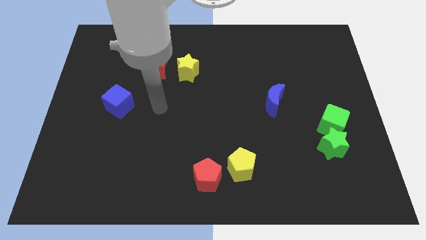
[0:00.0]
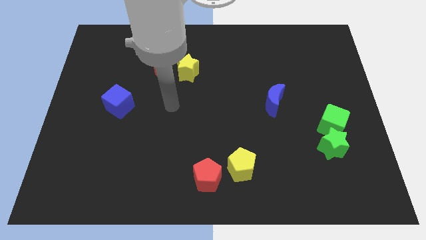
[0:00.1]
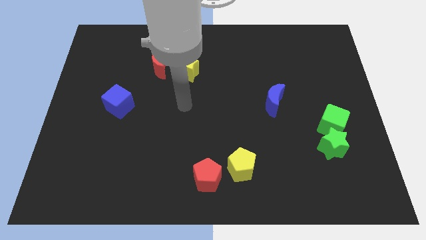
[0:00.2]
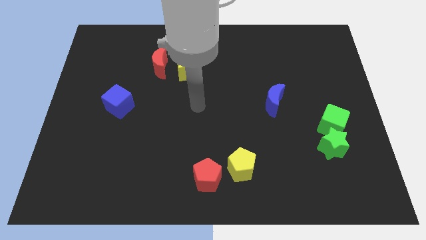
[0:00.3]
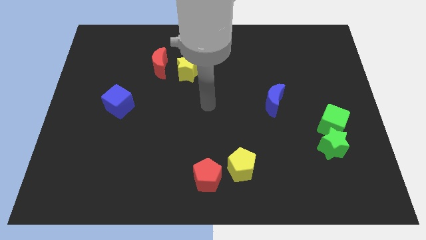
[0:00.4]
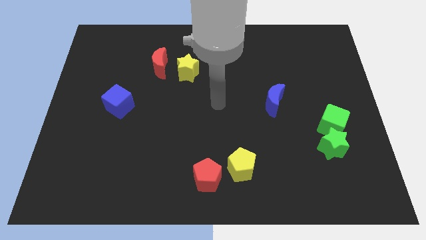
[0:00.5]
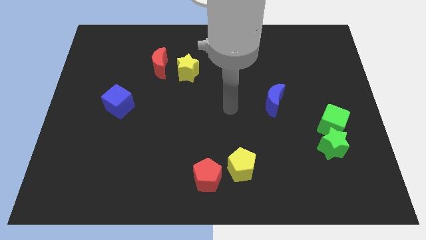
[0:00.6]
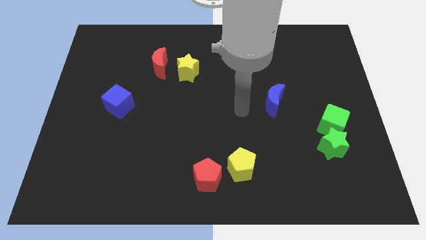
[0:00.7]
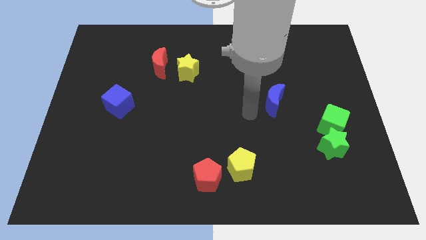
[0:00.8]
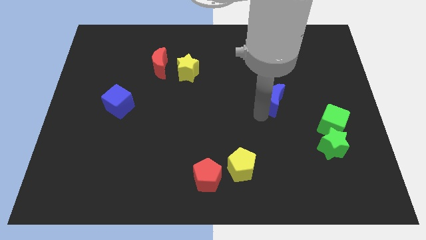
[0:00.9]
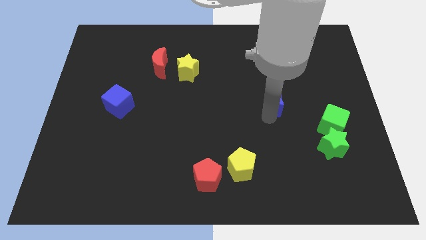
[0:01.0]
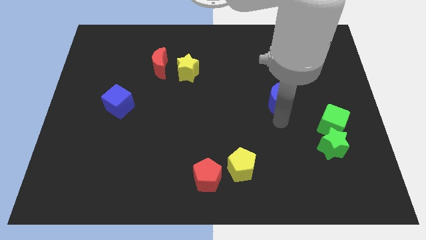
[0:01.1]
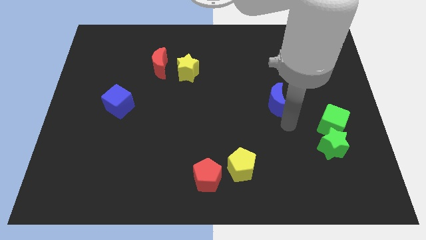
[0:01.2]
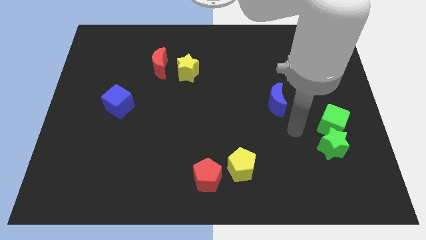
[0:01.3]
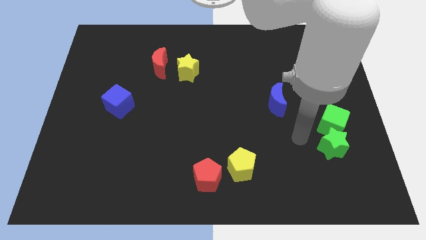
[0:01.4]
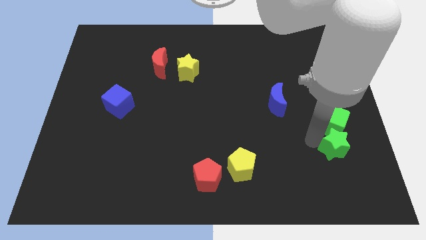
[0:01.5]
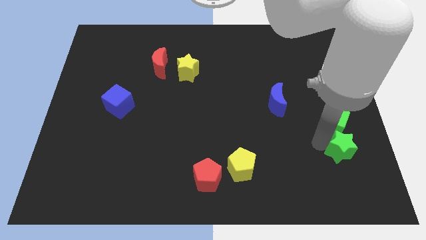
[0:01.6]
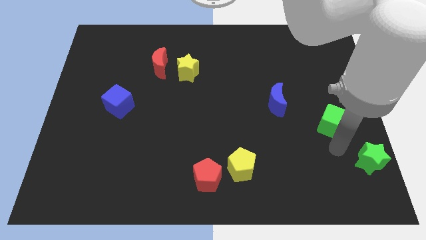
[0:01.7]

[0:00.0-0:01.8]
pull the green cube apart from the green star

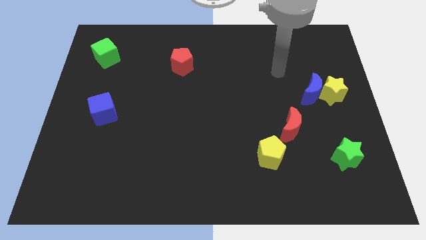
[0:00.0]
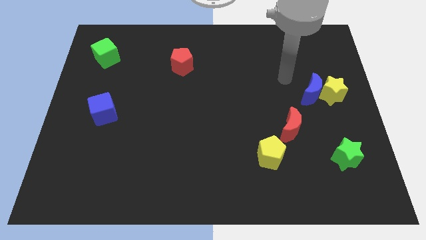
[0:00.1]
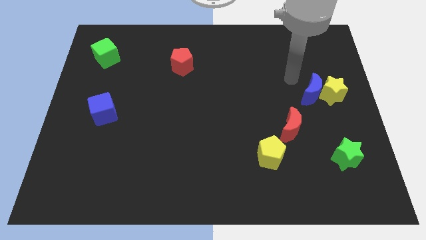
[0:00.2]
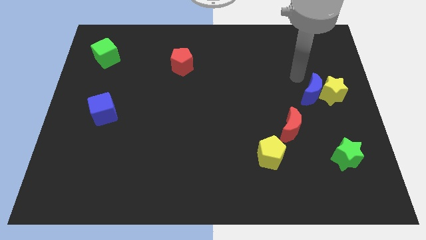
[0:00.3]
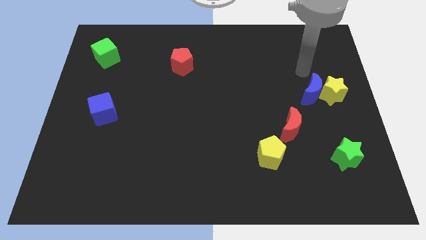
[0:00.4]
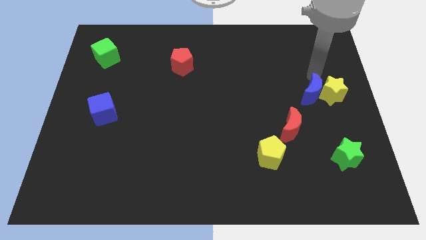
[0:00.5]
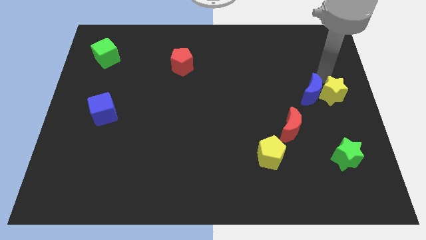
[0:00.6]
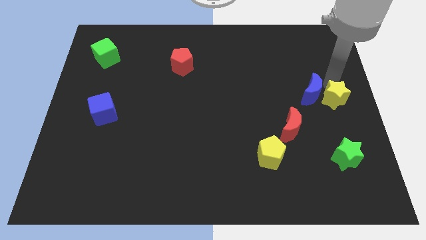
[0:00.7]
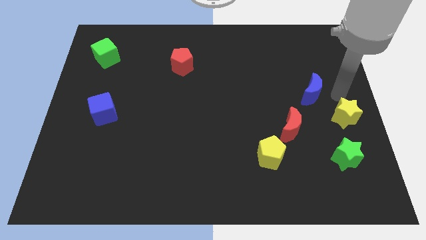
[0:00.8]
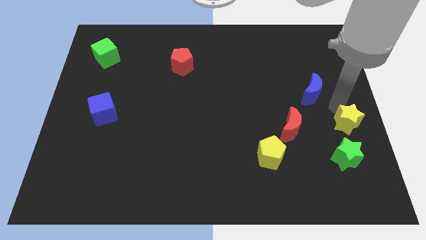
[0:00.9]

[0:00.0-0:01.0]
separate the blue moon from the yellow star

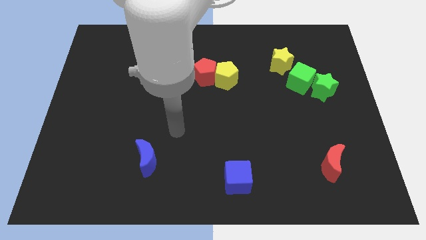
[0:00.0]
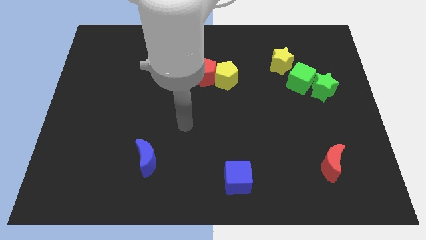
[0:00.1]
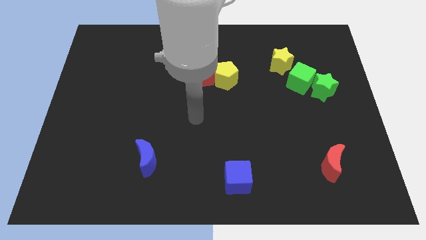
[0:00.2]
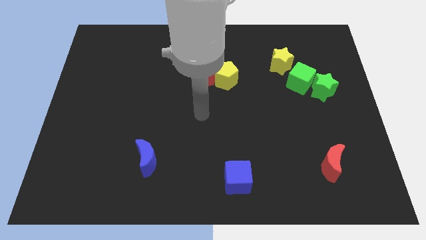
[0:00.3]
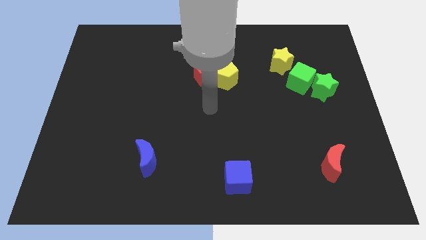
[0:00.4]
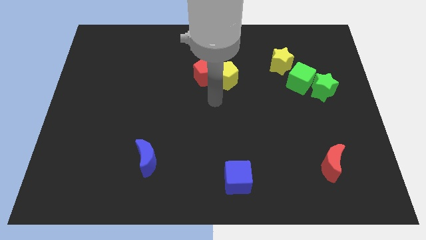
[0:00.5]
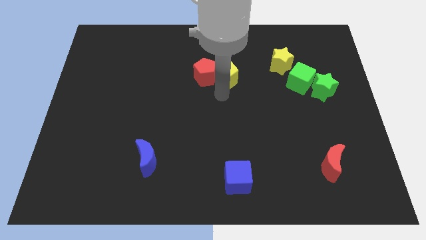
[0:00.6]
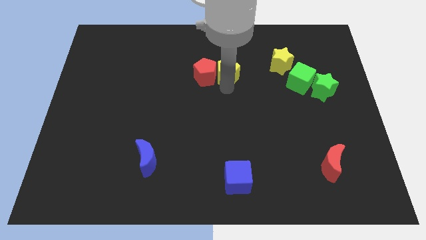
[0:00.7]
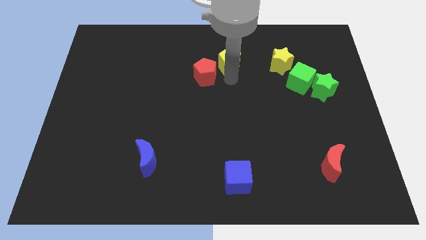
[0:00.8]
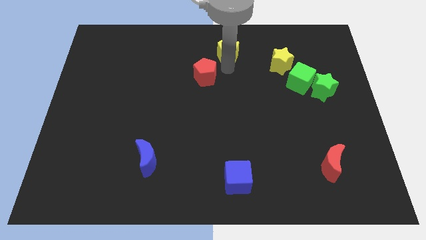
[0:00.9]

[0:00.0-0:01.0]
pull the red pentagon apart from the yellow pentagon

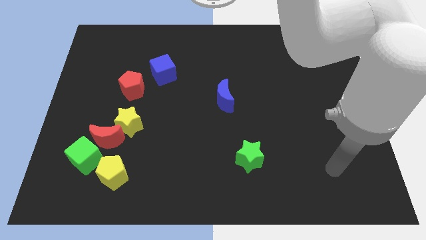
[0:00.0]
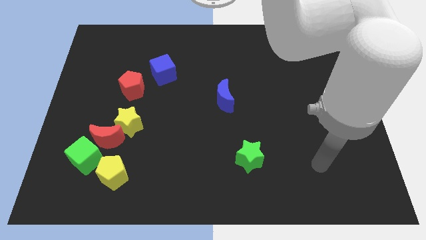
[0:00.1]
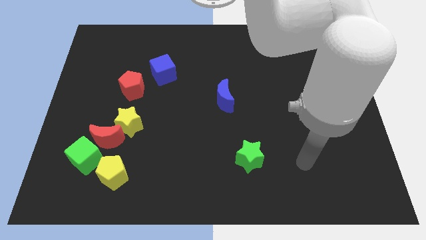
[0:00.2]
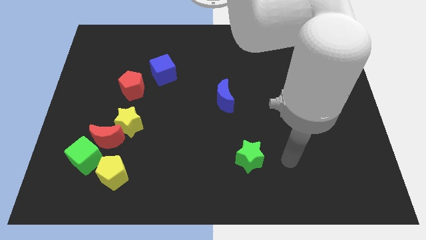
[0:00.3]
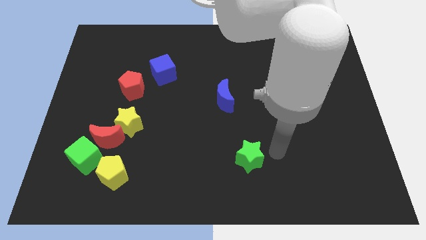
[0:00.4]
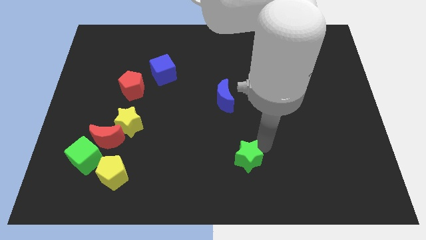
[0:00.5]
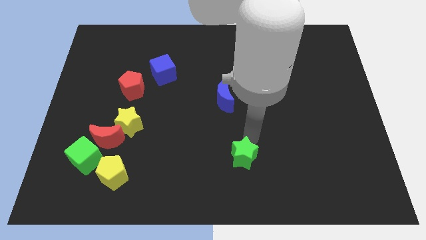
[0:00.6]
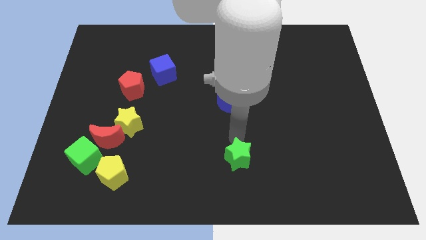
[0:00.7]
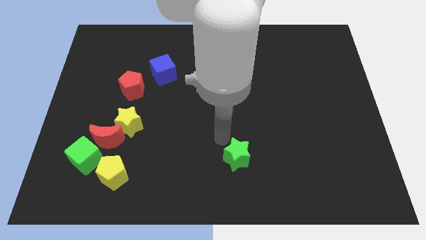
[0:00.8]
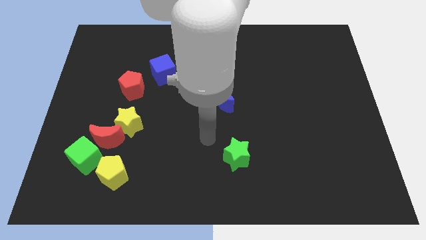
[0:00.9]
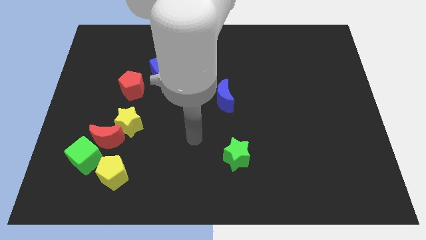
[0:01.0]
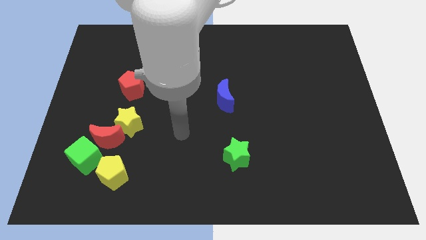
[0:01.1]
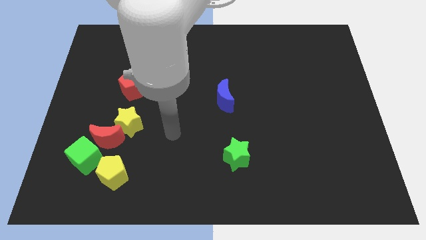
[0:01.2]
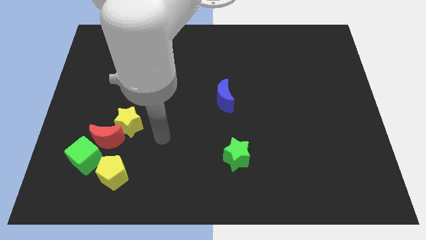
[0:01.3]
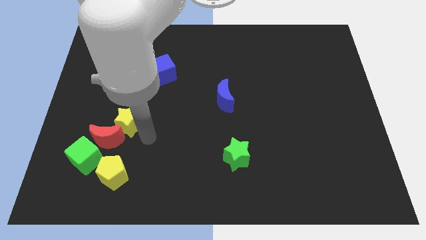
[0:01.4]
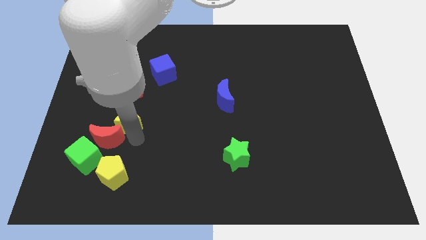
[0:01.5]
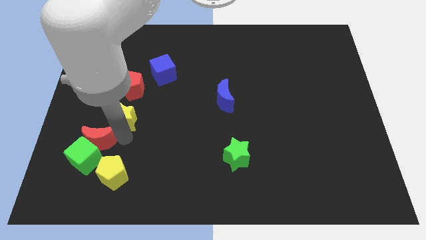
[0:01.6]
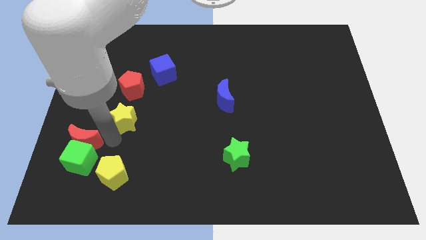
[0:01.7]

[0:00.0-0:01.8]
move the yellow star away from the red moon

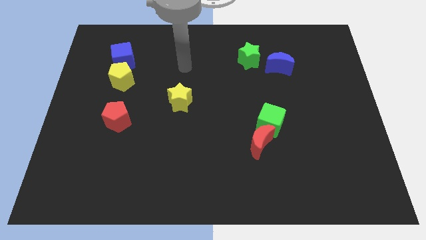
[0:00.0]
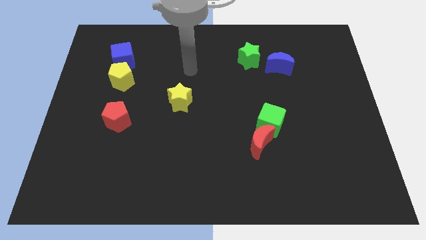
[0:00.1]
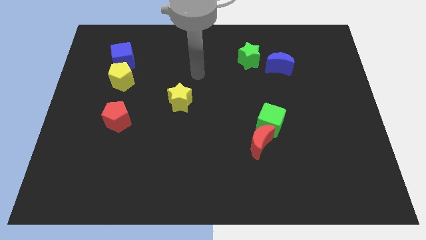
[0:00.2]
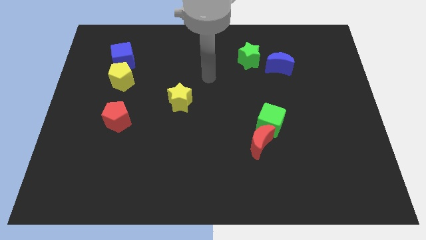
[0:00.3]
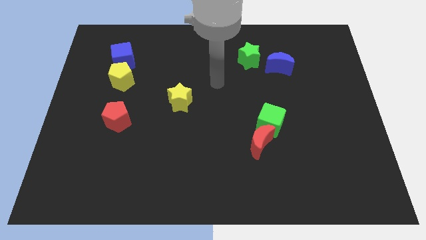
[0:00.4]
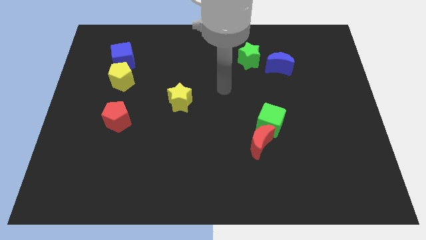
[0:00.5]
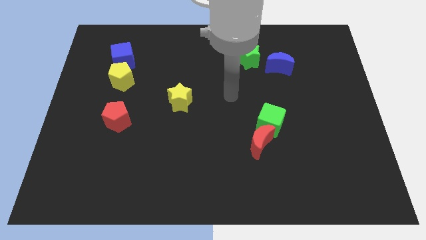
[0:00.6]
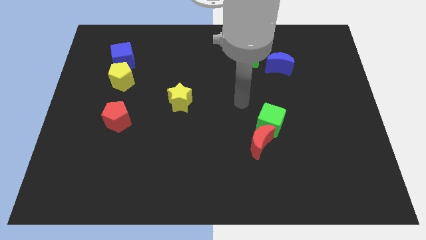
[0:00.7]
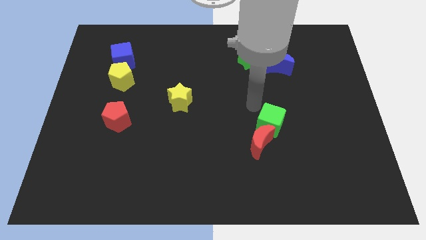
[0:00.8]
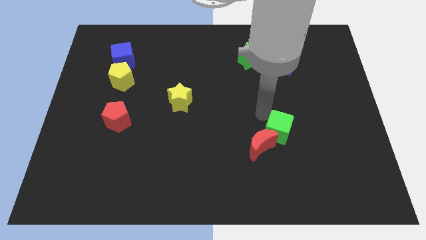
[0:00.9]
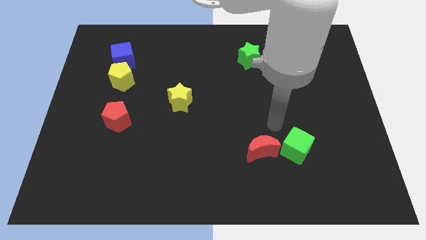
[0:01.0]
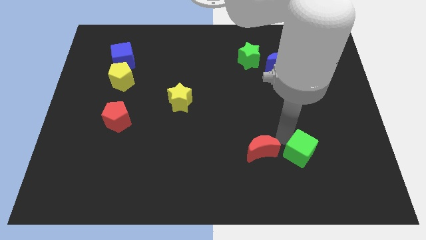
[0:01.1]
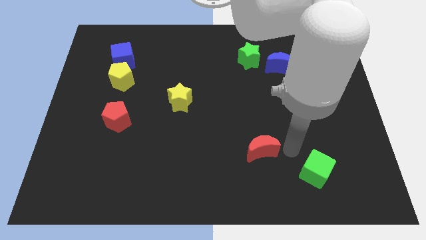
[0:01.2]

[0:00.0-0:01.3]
pull the red moon apart from the green cube

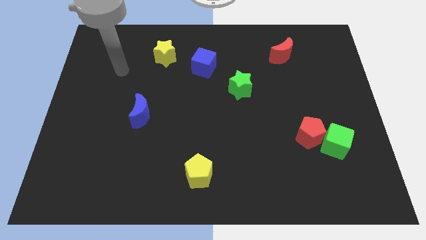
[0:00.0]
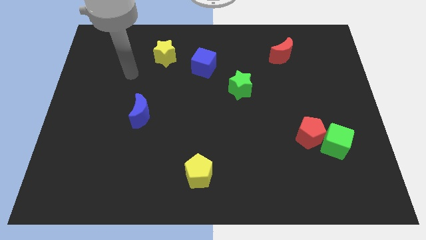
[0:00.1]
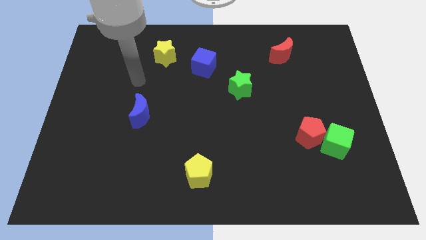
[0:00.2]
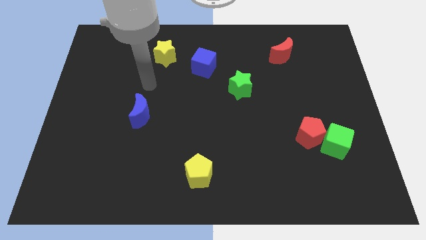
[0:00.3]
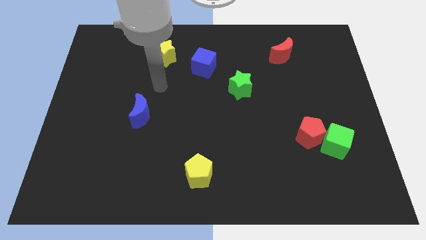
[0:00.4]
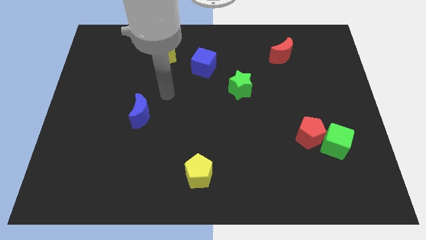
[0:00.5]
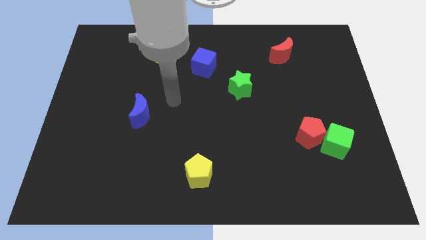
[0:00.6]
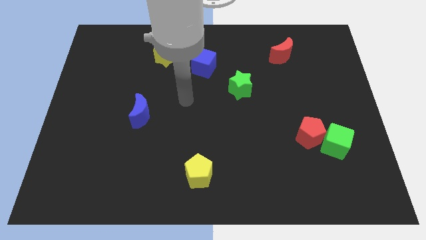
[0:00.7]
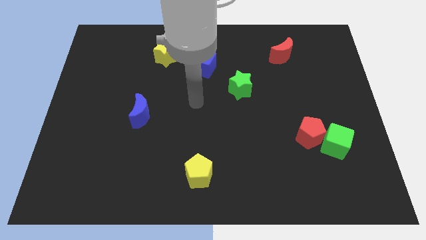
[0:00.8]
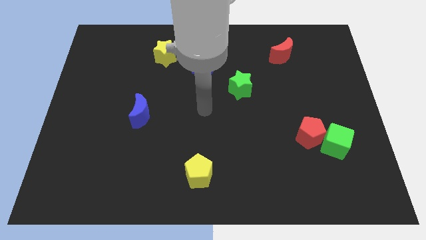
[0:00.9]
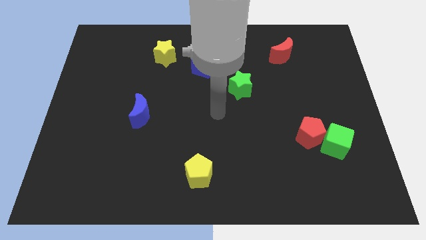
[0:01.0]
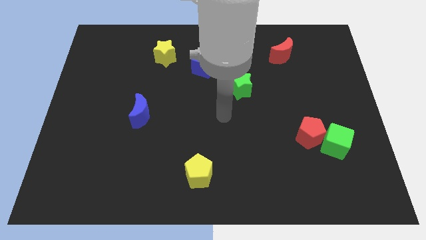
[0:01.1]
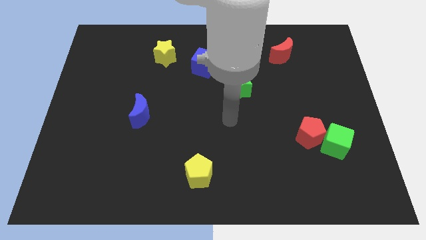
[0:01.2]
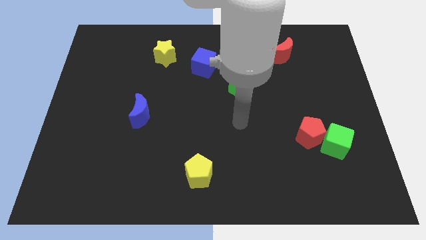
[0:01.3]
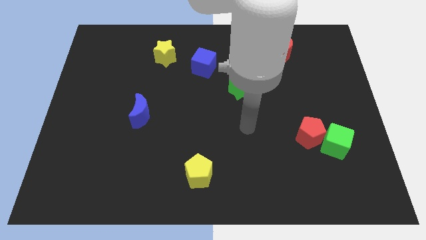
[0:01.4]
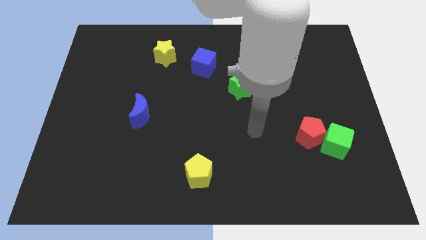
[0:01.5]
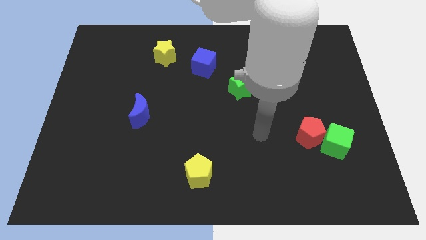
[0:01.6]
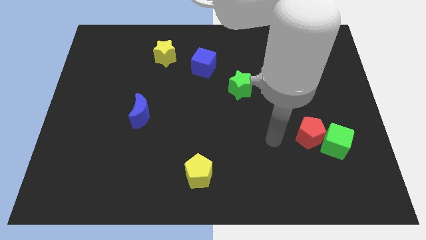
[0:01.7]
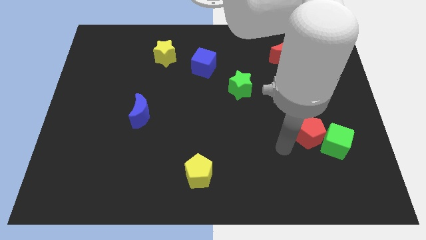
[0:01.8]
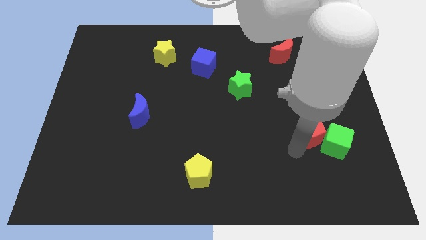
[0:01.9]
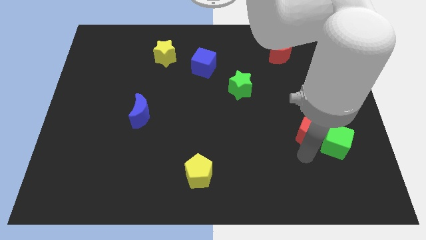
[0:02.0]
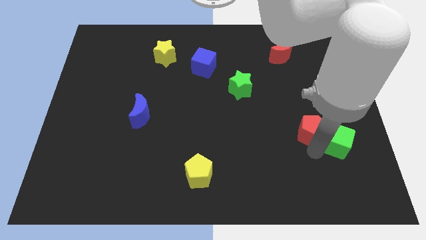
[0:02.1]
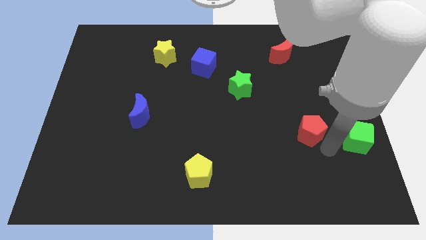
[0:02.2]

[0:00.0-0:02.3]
pull the red pentagon apart from the green cube

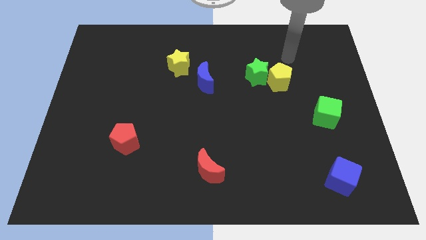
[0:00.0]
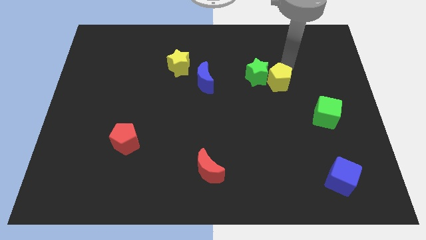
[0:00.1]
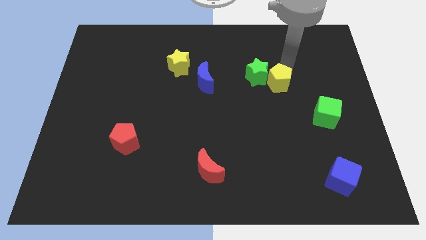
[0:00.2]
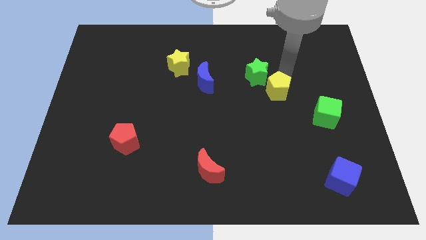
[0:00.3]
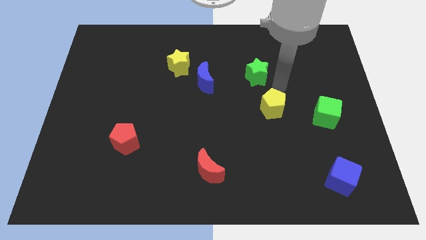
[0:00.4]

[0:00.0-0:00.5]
pull the green star apart from the yellow pentagon
